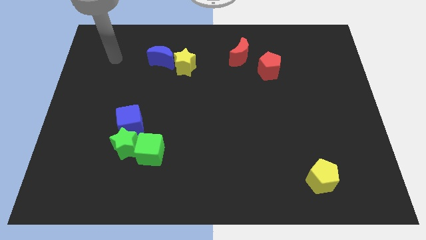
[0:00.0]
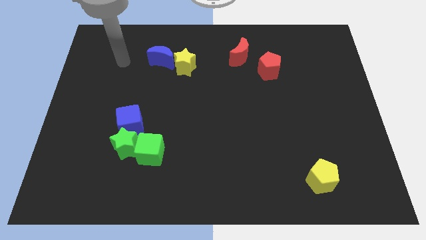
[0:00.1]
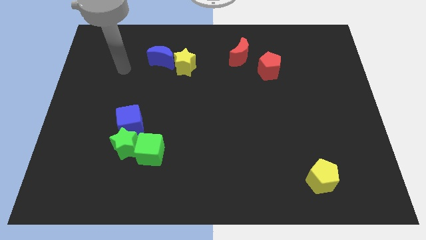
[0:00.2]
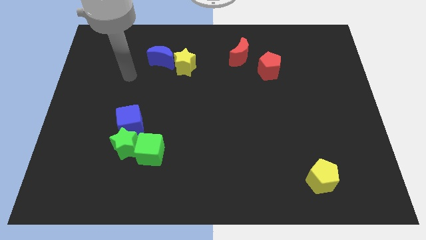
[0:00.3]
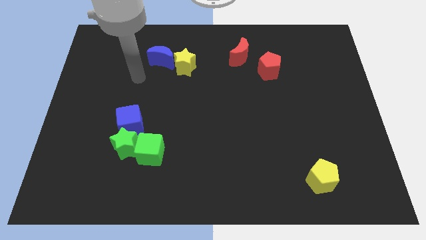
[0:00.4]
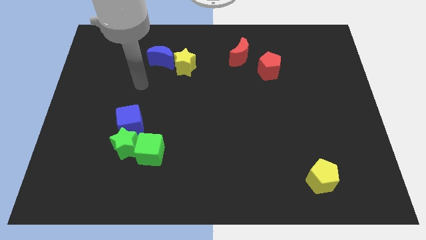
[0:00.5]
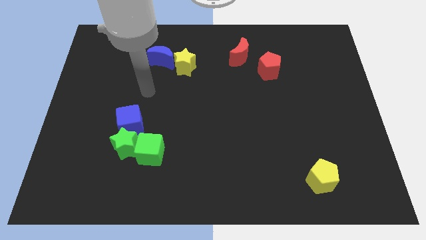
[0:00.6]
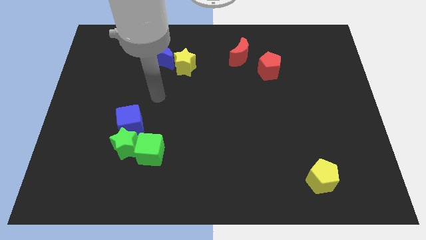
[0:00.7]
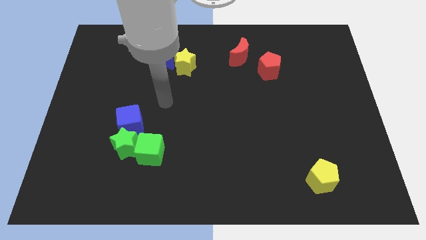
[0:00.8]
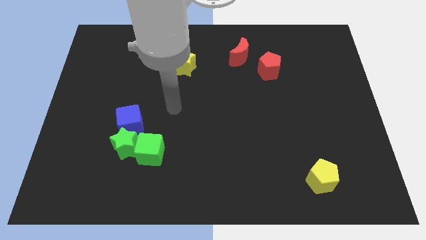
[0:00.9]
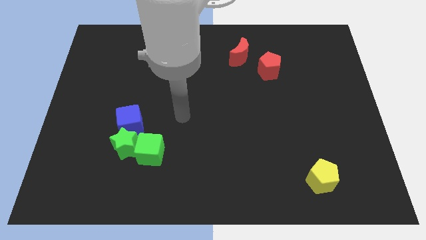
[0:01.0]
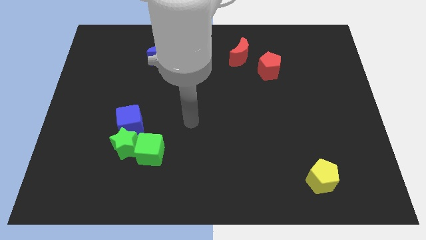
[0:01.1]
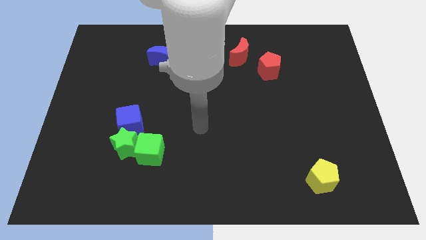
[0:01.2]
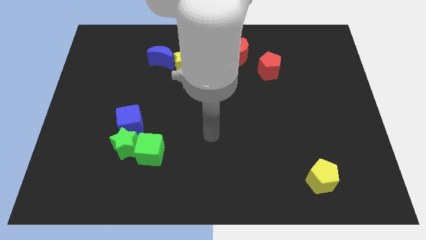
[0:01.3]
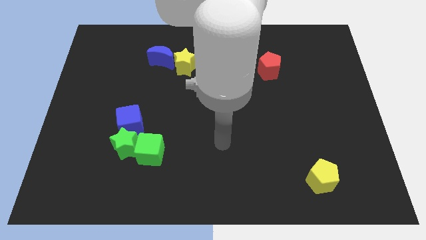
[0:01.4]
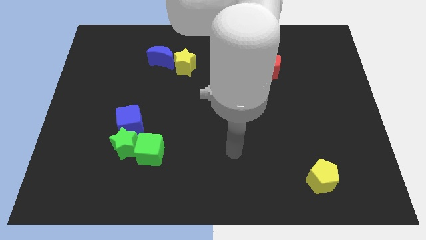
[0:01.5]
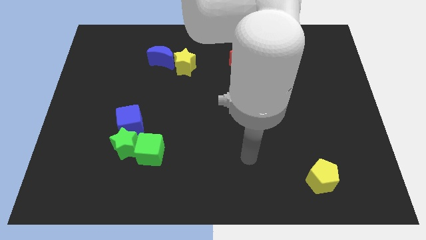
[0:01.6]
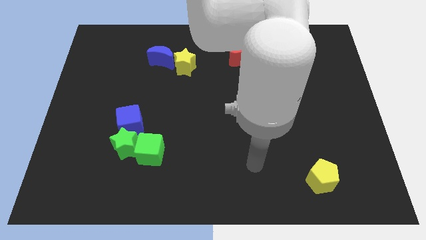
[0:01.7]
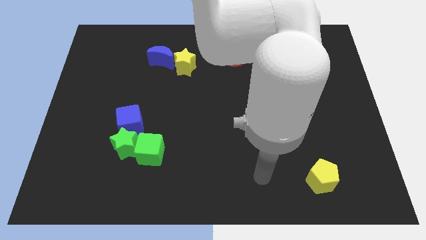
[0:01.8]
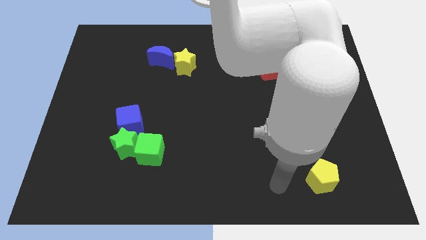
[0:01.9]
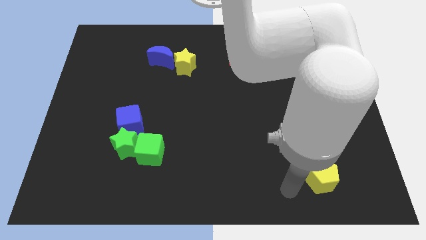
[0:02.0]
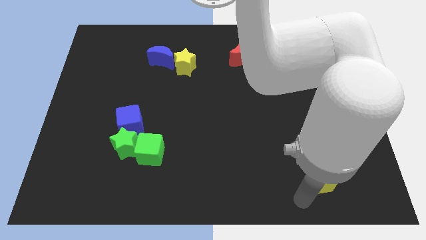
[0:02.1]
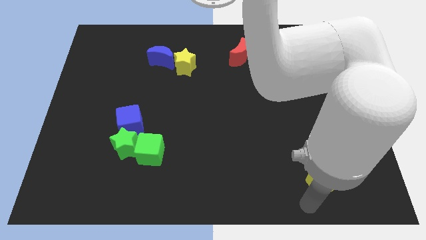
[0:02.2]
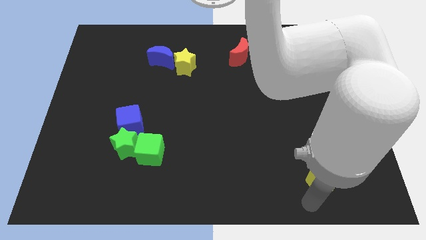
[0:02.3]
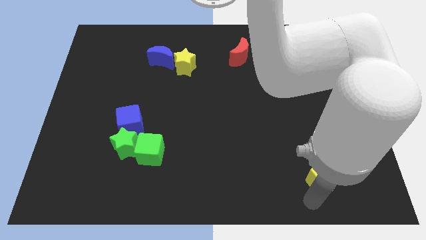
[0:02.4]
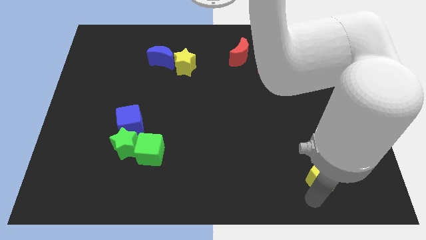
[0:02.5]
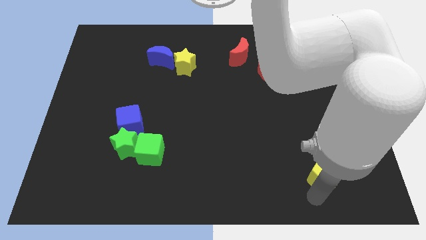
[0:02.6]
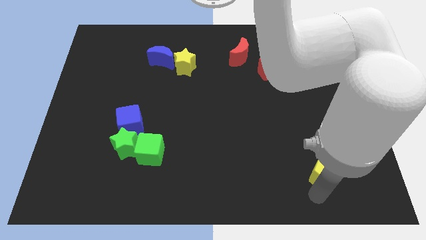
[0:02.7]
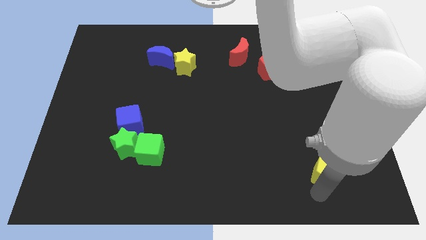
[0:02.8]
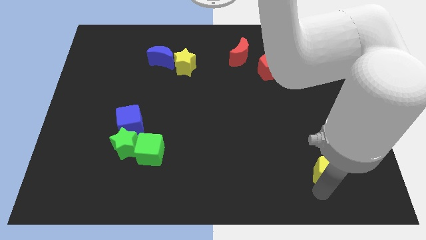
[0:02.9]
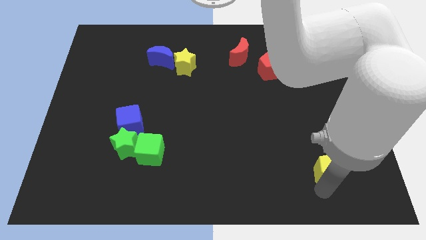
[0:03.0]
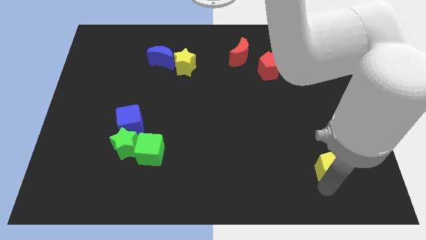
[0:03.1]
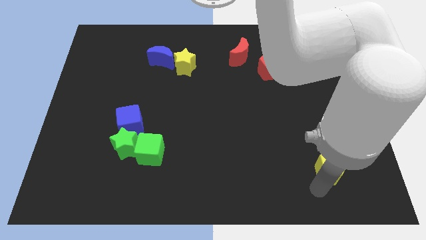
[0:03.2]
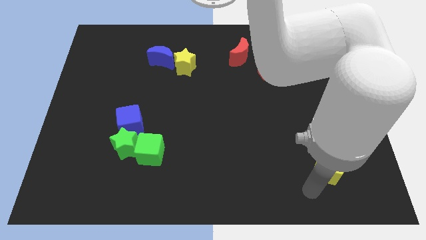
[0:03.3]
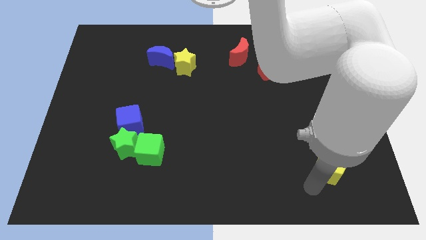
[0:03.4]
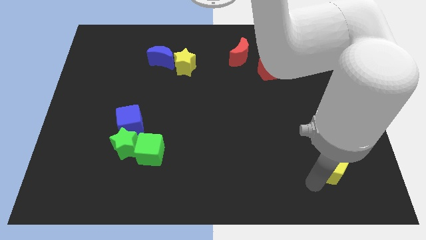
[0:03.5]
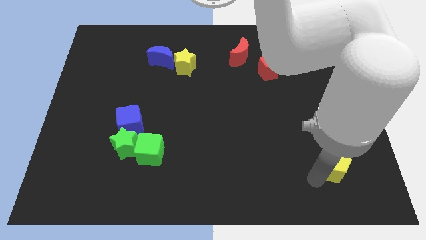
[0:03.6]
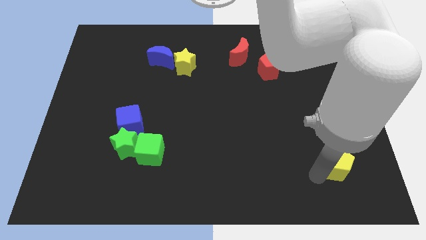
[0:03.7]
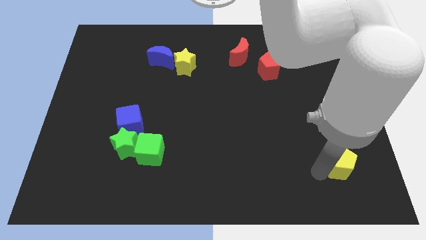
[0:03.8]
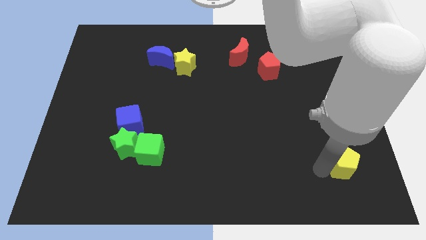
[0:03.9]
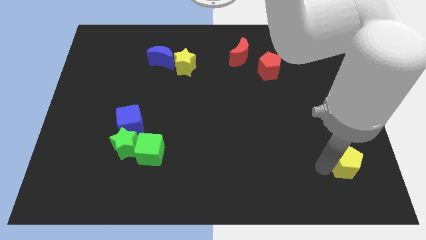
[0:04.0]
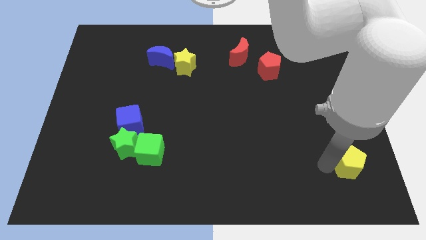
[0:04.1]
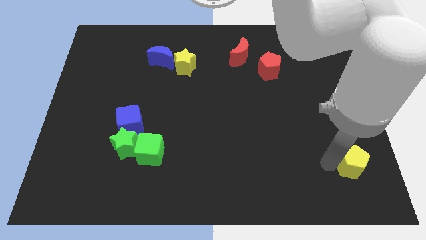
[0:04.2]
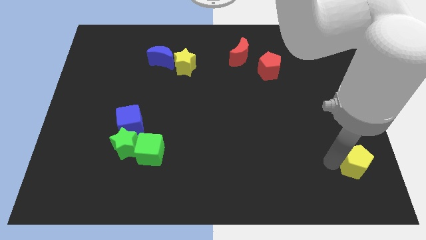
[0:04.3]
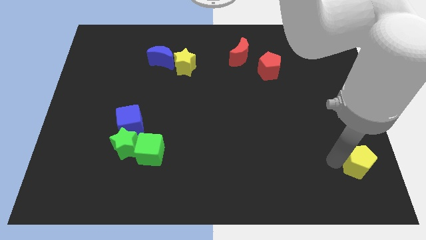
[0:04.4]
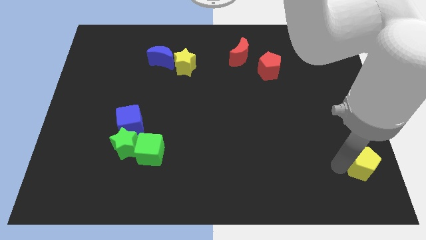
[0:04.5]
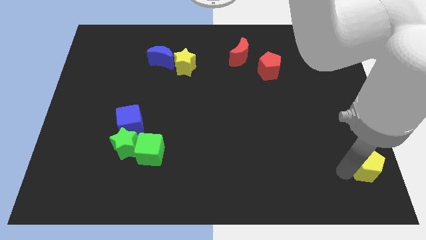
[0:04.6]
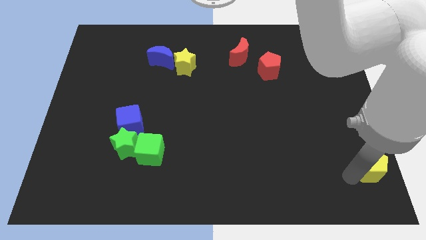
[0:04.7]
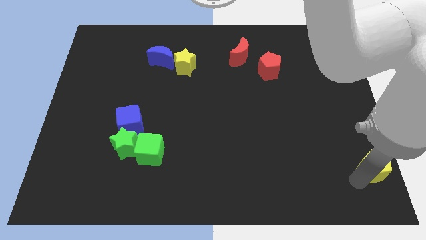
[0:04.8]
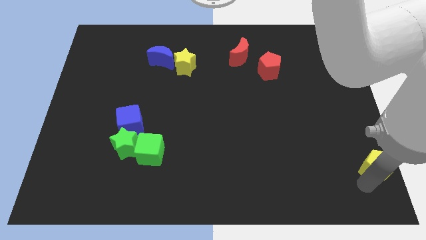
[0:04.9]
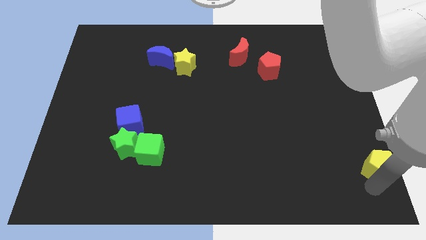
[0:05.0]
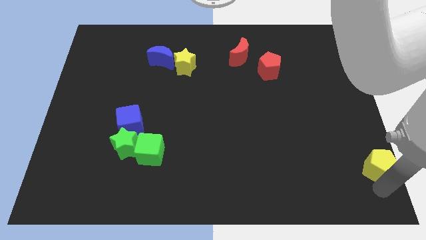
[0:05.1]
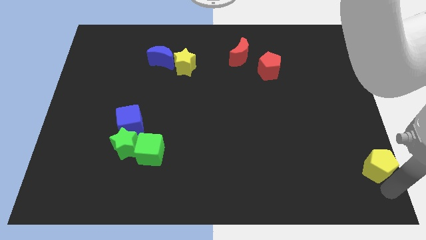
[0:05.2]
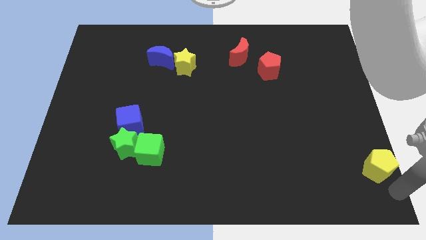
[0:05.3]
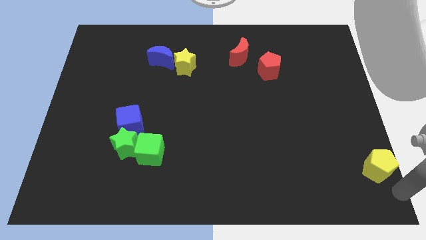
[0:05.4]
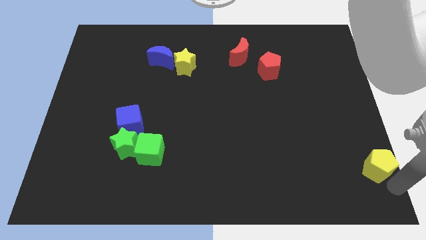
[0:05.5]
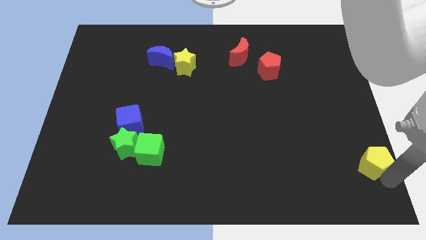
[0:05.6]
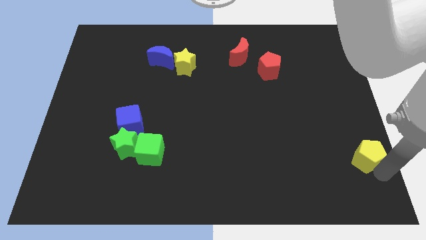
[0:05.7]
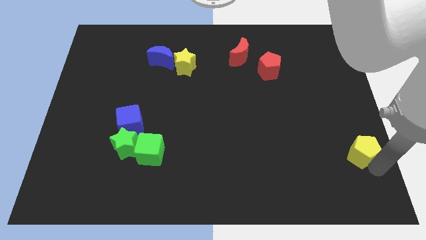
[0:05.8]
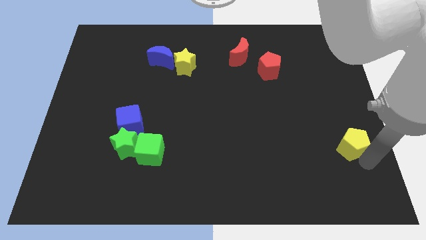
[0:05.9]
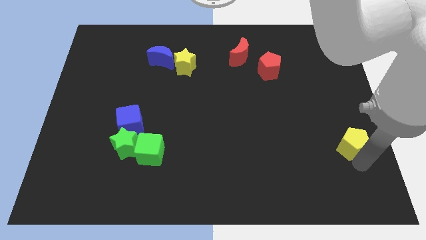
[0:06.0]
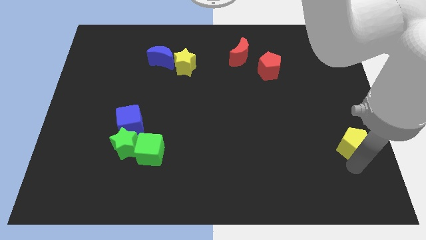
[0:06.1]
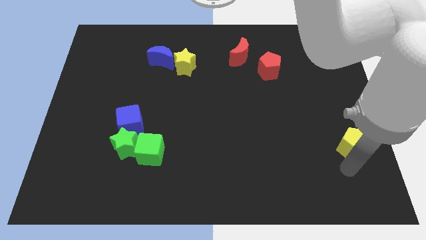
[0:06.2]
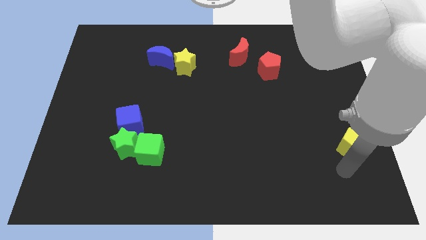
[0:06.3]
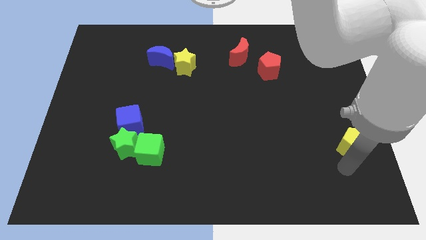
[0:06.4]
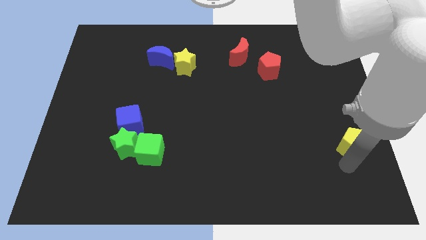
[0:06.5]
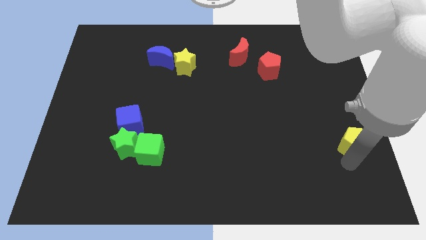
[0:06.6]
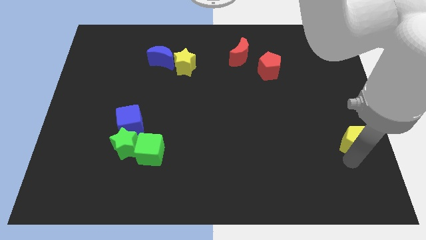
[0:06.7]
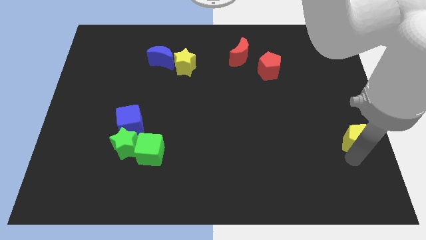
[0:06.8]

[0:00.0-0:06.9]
push the yellow pentagon to the right side

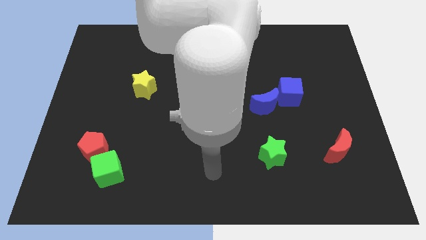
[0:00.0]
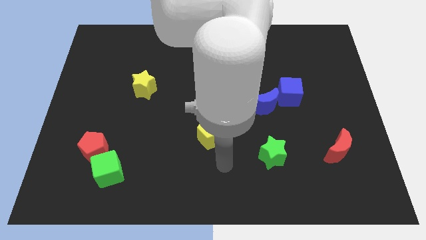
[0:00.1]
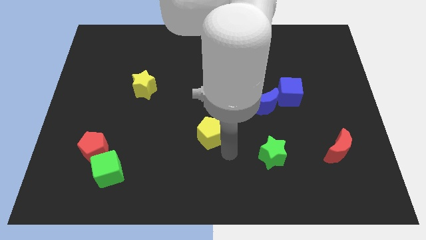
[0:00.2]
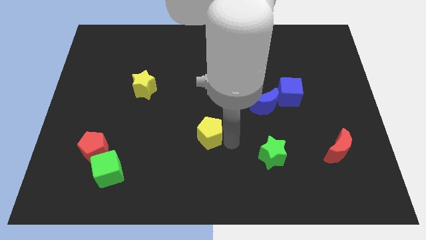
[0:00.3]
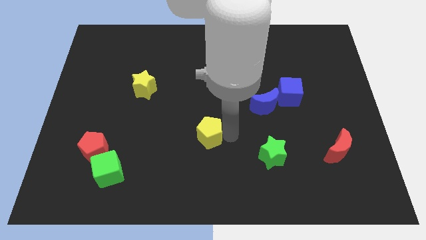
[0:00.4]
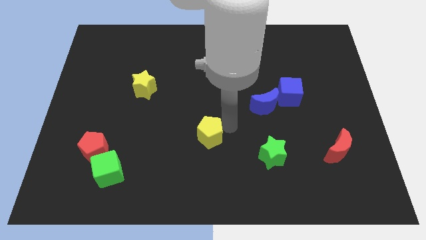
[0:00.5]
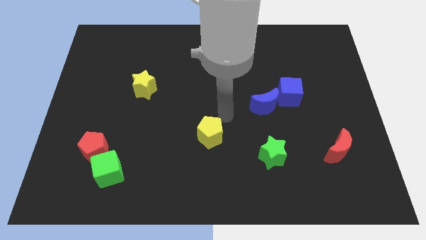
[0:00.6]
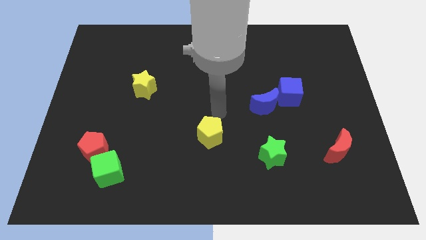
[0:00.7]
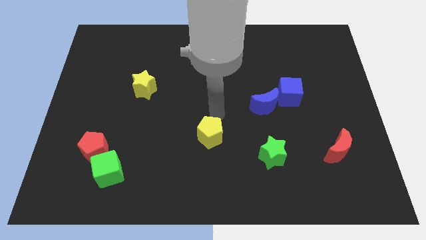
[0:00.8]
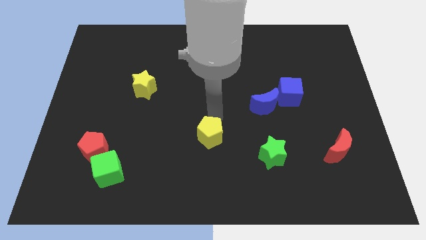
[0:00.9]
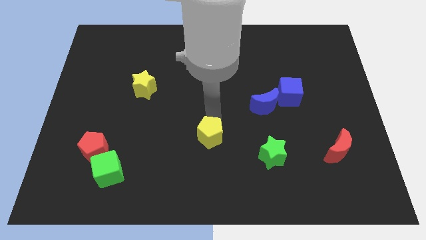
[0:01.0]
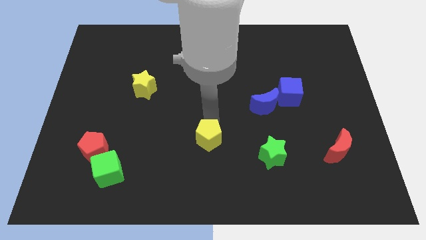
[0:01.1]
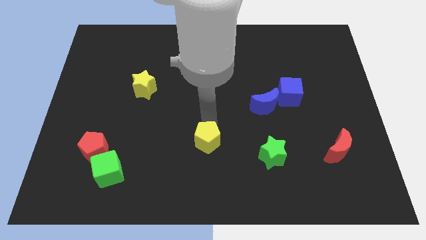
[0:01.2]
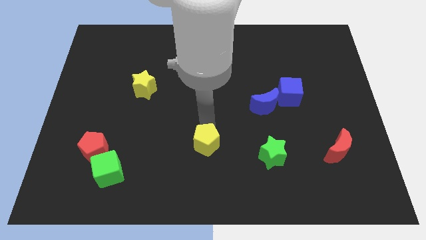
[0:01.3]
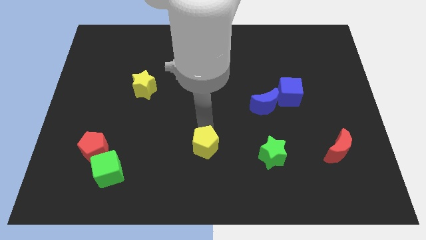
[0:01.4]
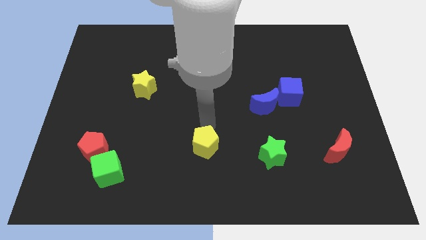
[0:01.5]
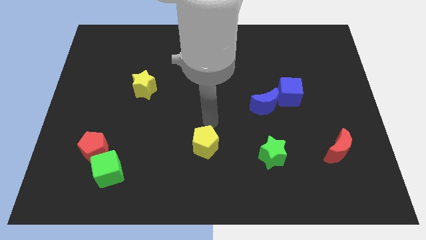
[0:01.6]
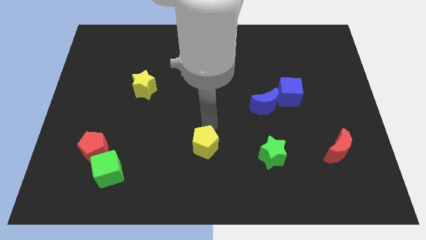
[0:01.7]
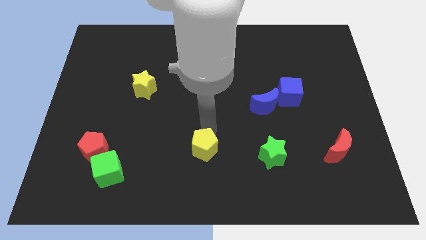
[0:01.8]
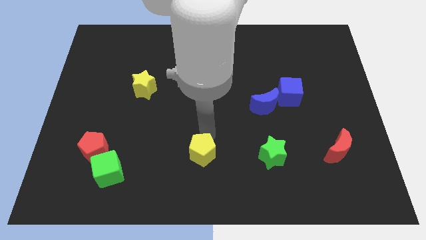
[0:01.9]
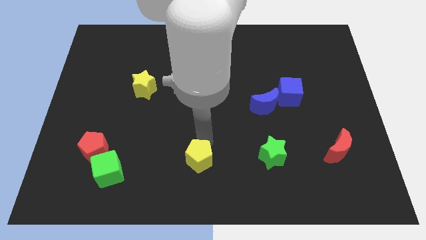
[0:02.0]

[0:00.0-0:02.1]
put the yellow pentagon to the bottom side
